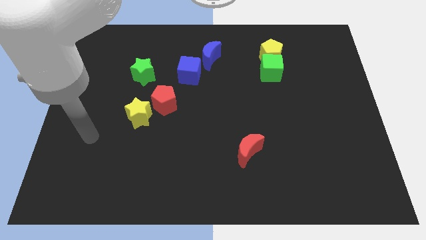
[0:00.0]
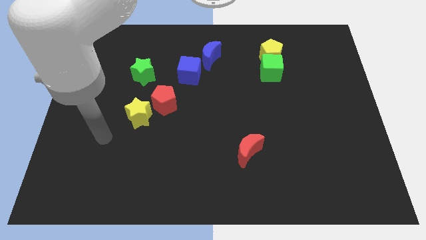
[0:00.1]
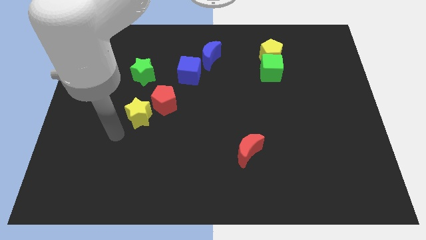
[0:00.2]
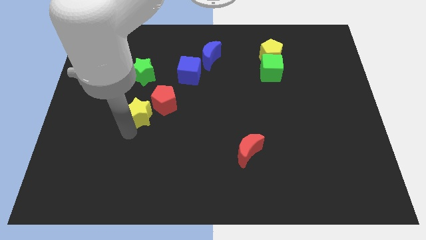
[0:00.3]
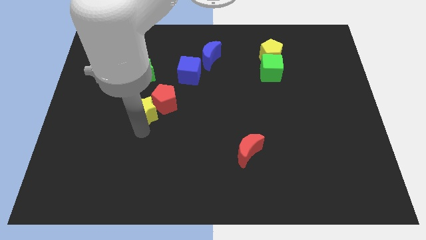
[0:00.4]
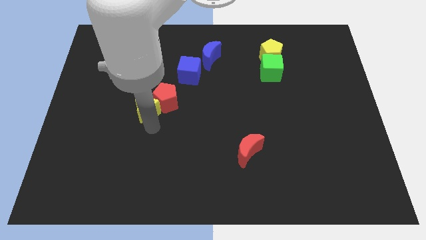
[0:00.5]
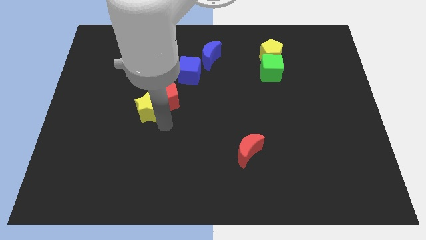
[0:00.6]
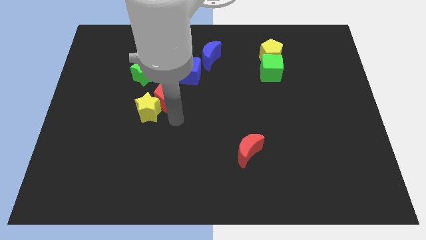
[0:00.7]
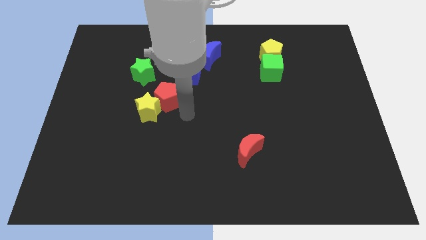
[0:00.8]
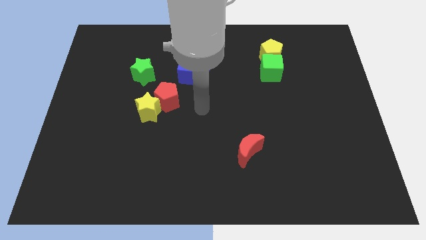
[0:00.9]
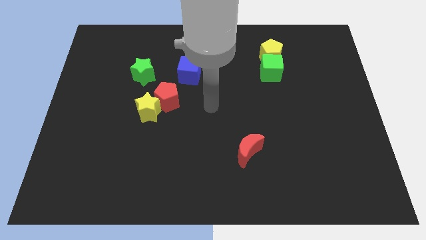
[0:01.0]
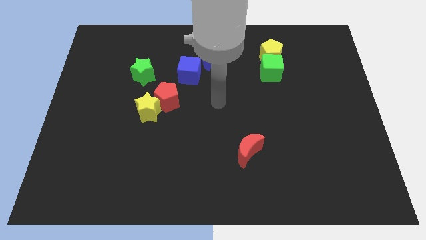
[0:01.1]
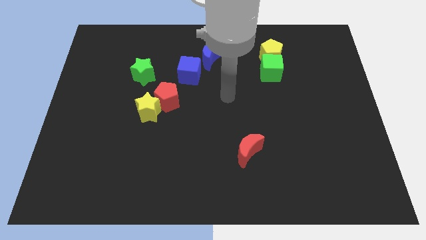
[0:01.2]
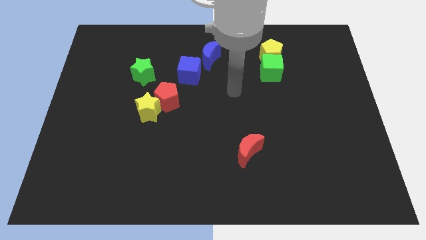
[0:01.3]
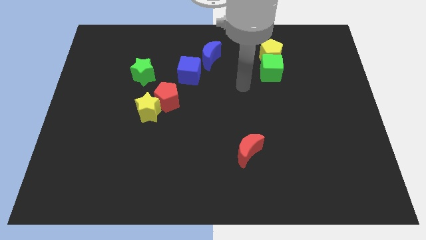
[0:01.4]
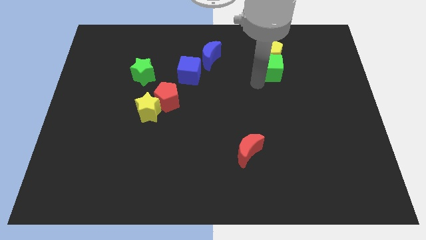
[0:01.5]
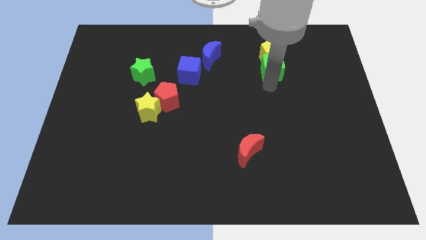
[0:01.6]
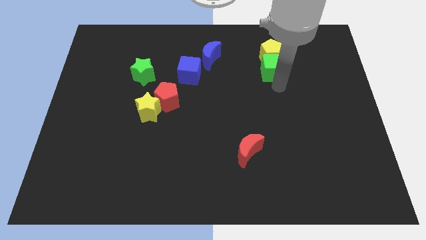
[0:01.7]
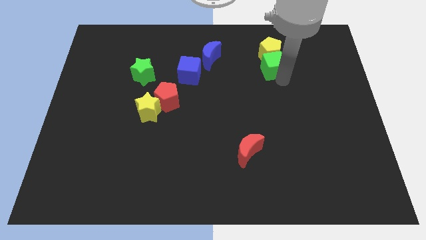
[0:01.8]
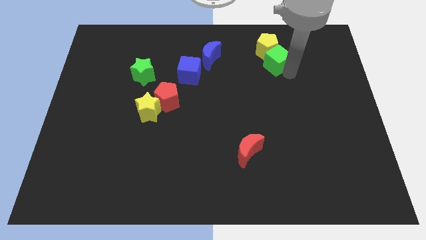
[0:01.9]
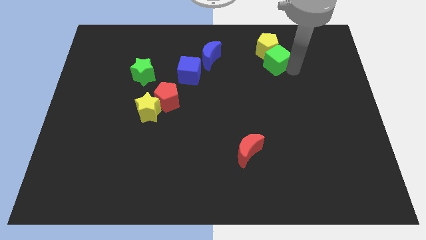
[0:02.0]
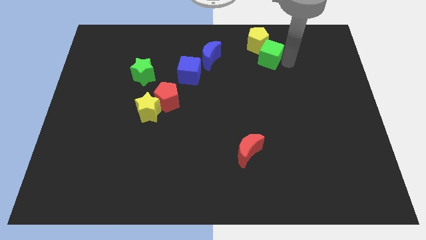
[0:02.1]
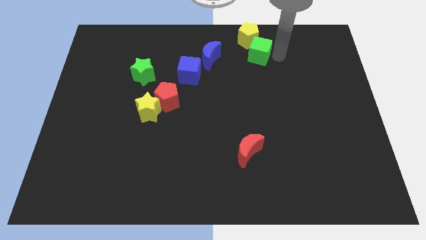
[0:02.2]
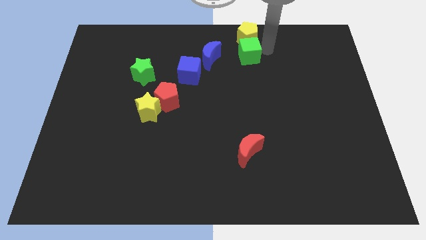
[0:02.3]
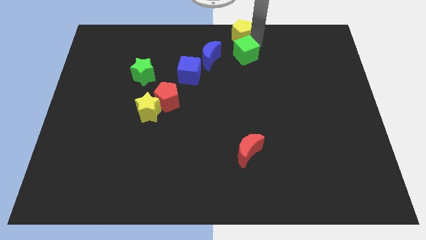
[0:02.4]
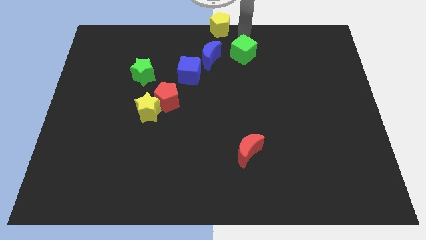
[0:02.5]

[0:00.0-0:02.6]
move the green cube away from the yellow pentagon

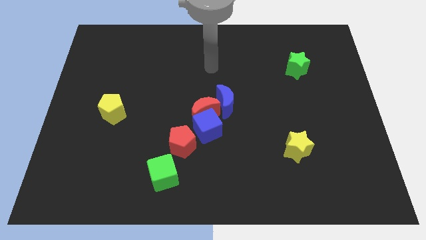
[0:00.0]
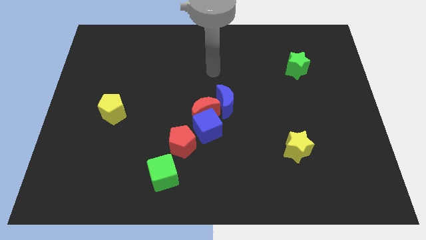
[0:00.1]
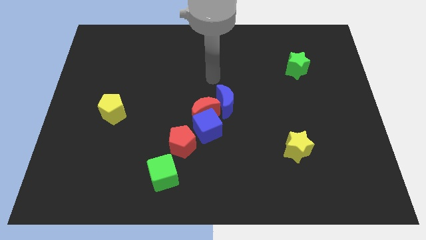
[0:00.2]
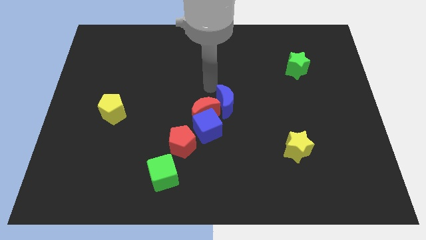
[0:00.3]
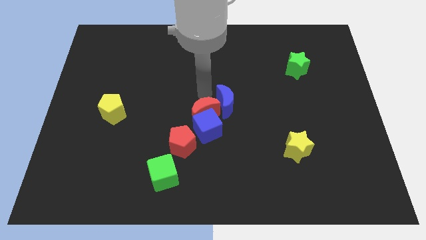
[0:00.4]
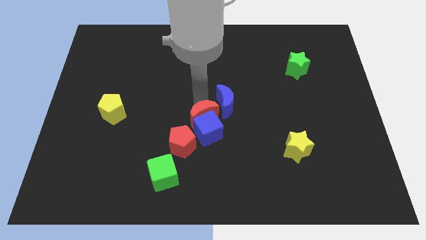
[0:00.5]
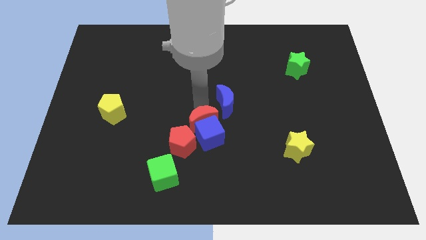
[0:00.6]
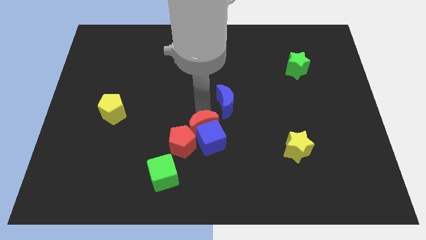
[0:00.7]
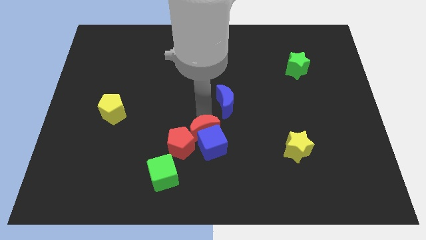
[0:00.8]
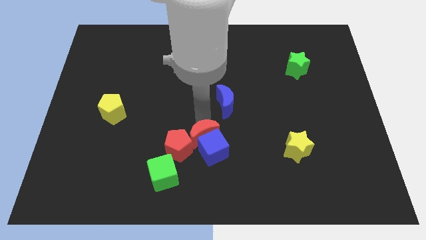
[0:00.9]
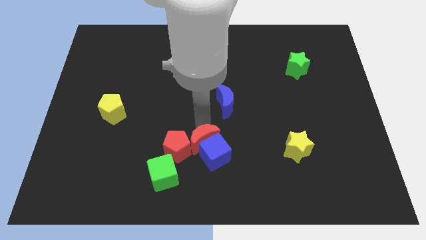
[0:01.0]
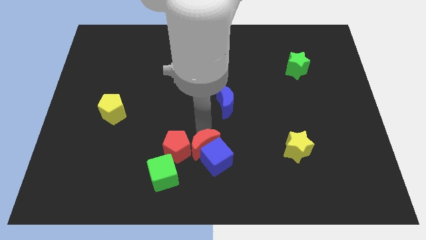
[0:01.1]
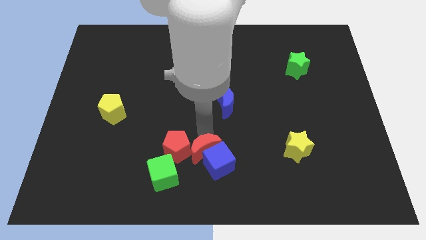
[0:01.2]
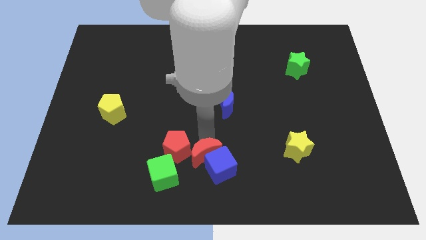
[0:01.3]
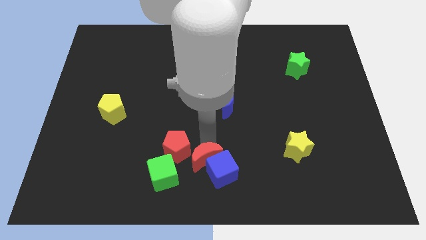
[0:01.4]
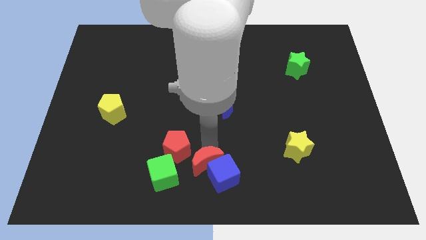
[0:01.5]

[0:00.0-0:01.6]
move the blue cube away from the group

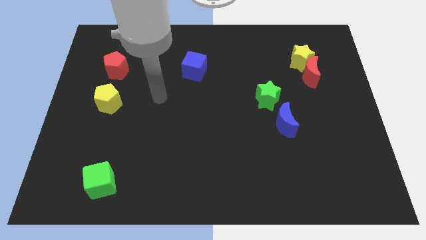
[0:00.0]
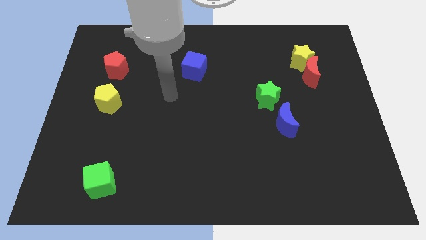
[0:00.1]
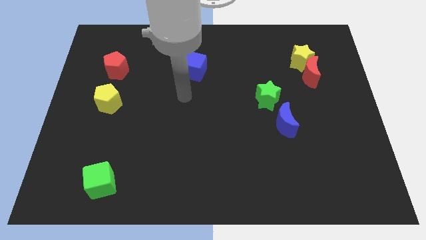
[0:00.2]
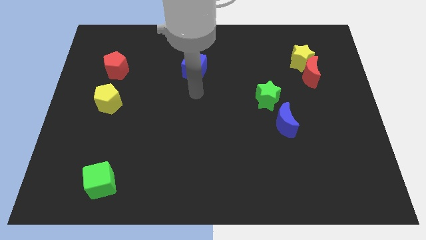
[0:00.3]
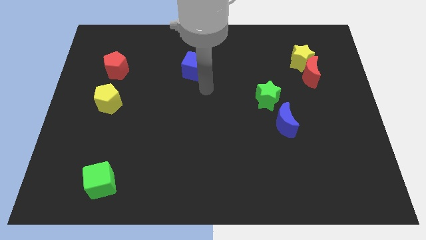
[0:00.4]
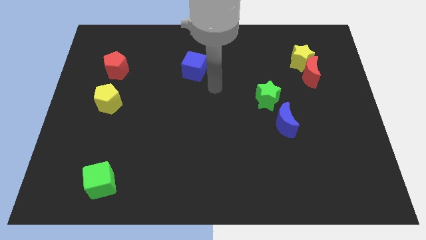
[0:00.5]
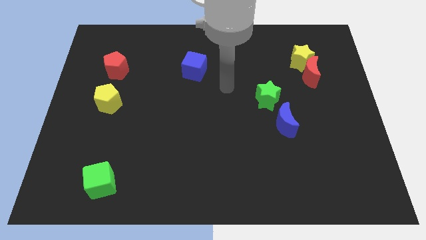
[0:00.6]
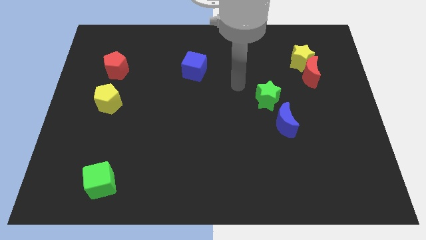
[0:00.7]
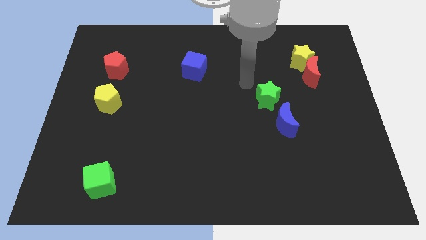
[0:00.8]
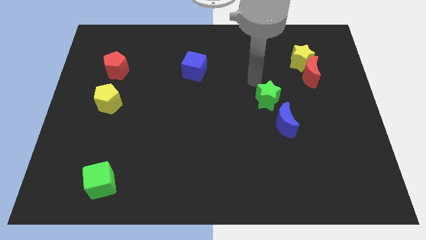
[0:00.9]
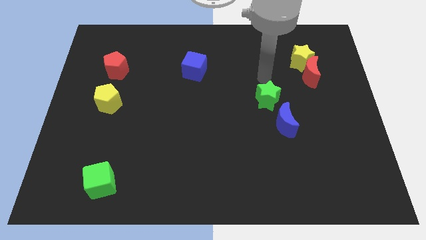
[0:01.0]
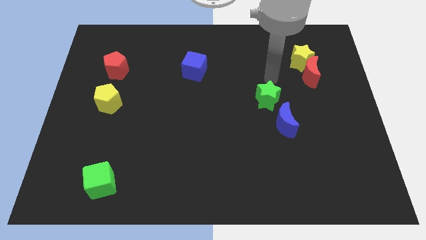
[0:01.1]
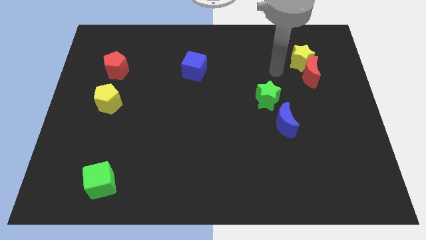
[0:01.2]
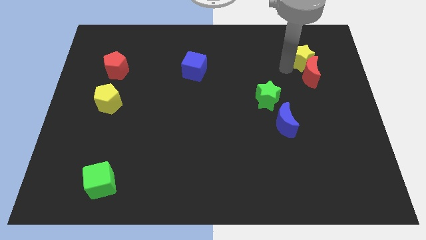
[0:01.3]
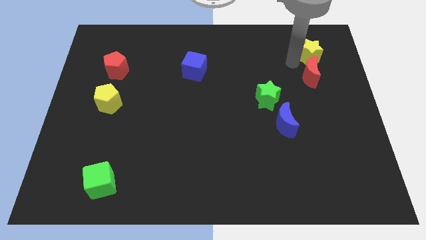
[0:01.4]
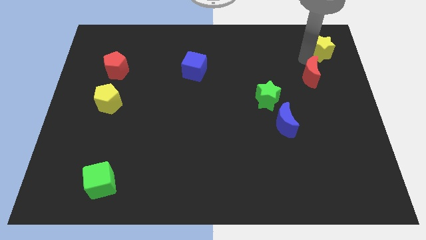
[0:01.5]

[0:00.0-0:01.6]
move the red moon away from the yellow star

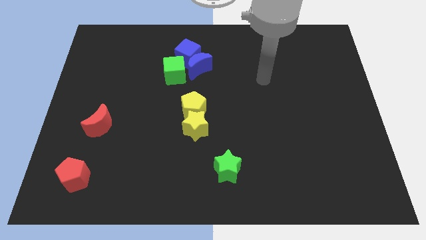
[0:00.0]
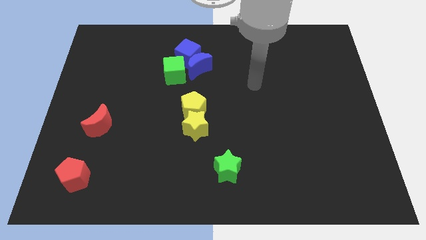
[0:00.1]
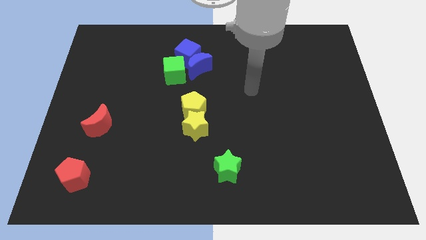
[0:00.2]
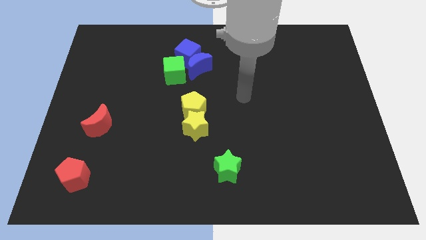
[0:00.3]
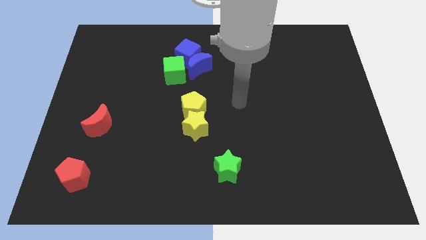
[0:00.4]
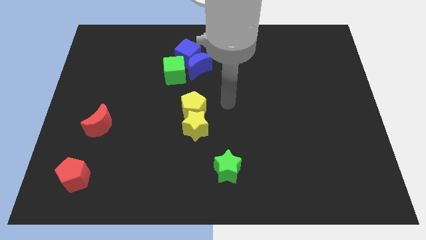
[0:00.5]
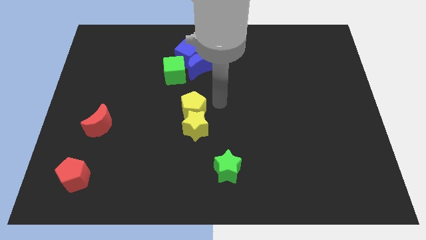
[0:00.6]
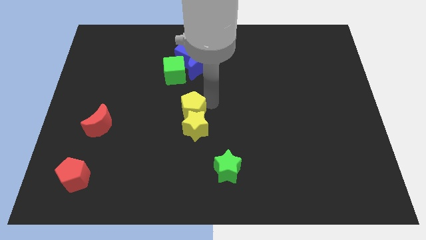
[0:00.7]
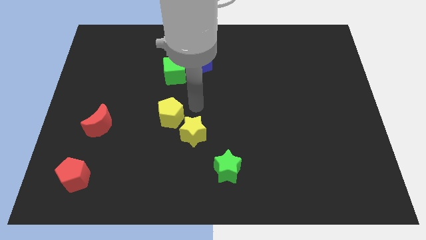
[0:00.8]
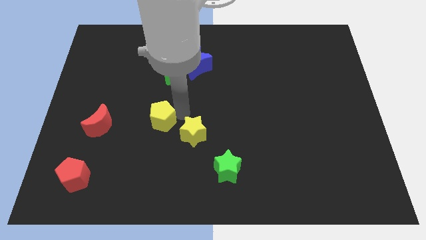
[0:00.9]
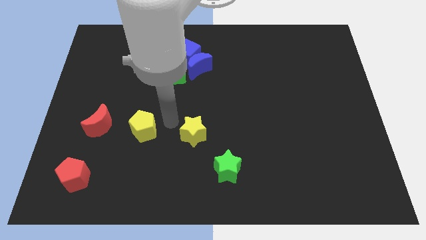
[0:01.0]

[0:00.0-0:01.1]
separate the yellow star from the yellow pentagon

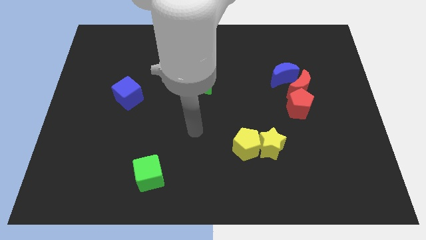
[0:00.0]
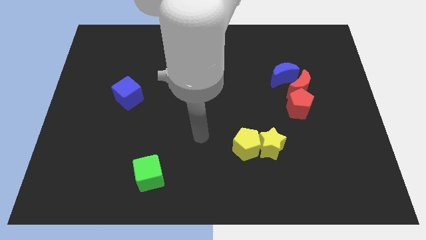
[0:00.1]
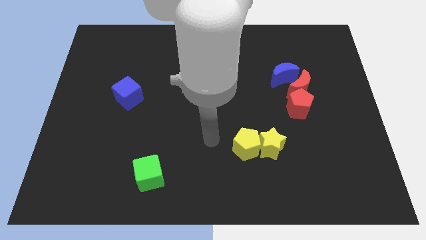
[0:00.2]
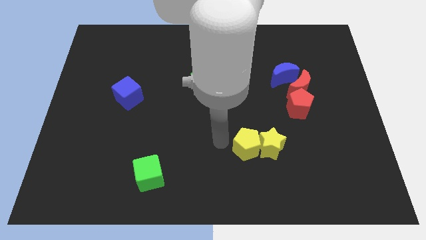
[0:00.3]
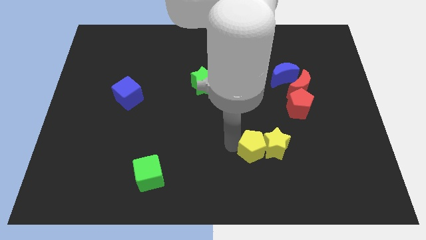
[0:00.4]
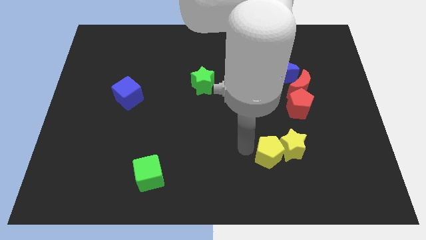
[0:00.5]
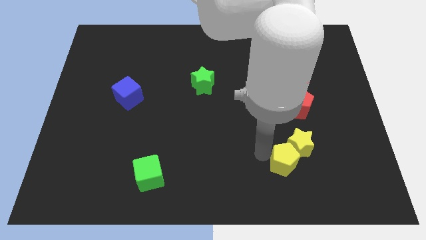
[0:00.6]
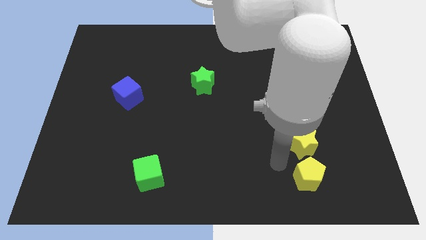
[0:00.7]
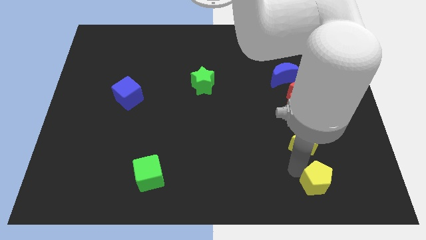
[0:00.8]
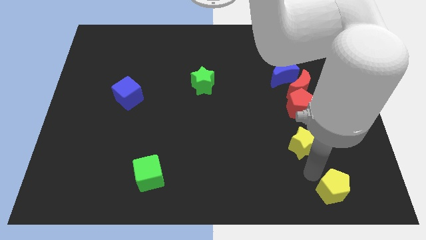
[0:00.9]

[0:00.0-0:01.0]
pull the yellow star apart from the yellow pentagon

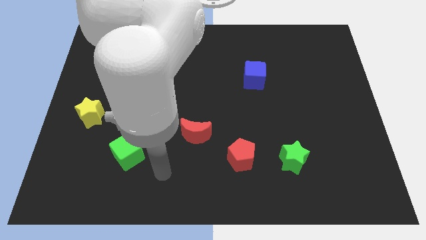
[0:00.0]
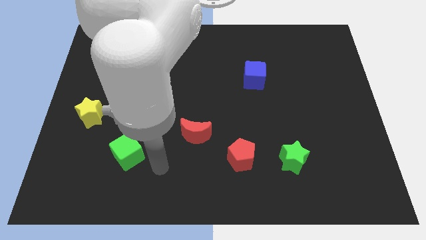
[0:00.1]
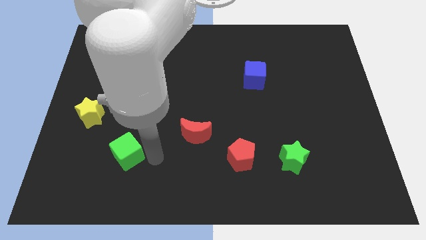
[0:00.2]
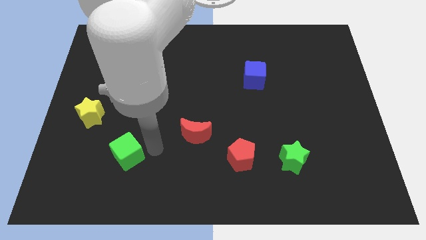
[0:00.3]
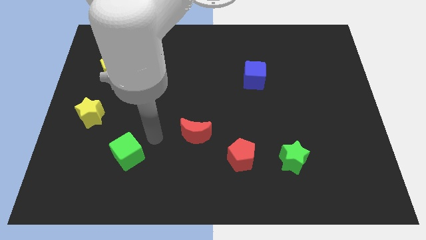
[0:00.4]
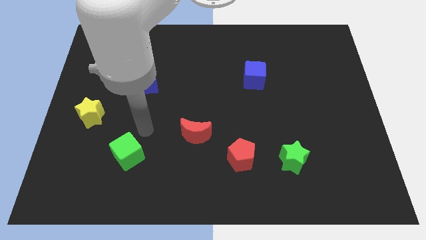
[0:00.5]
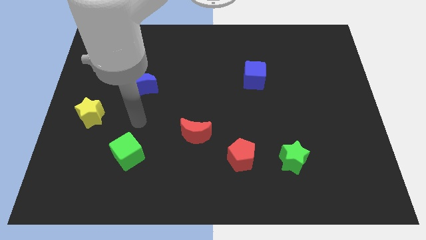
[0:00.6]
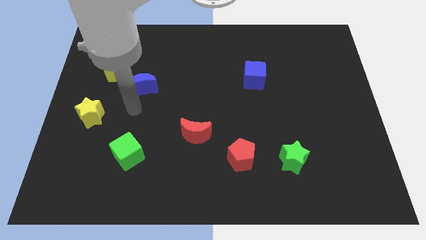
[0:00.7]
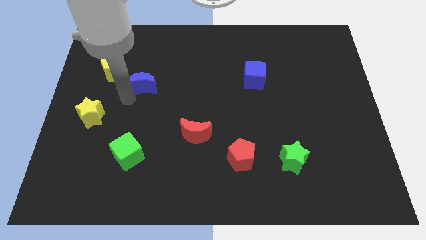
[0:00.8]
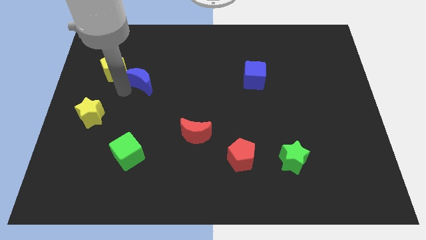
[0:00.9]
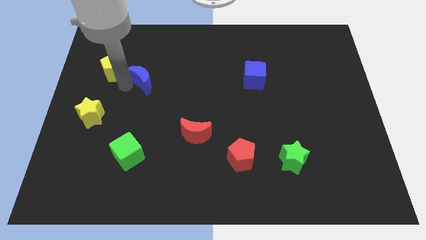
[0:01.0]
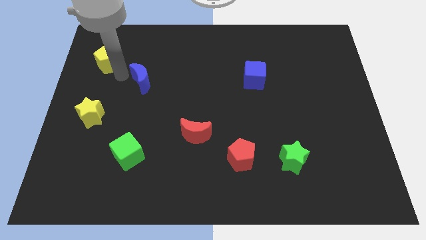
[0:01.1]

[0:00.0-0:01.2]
pull the blue moon apart from the yellow pentagon
